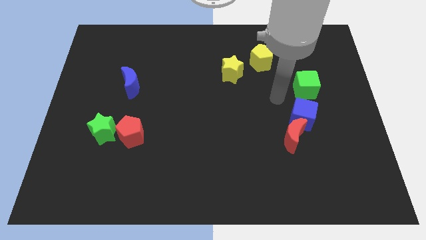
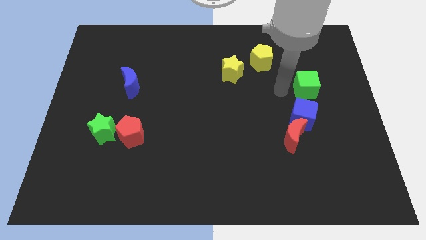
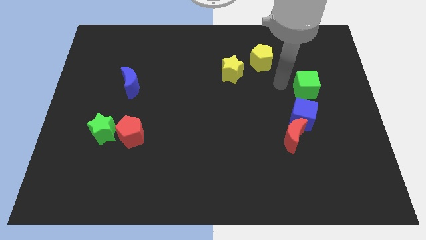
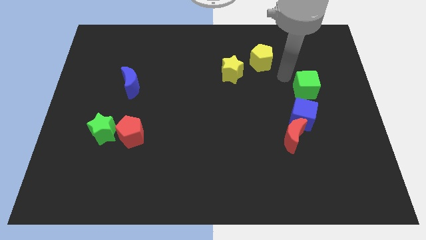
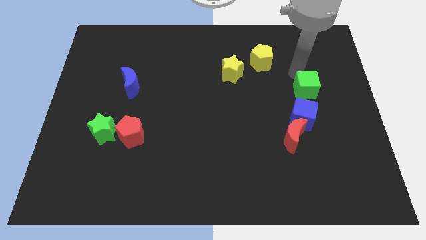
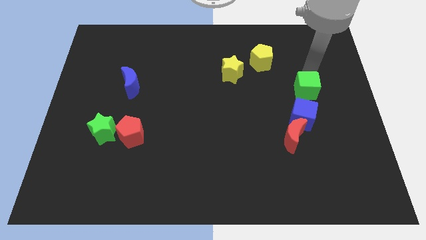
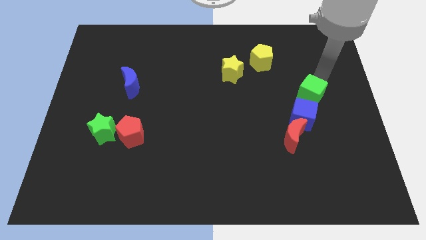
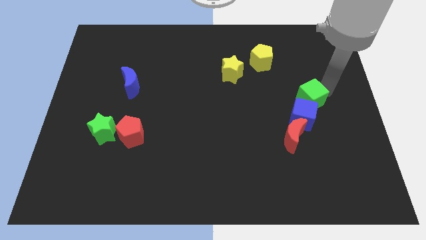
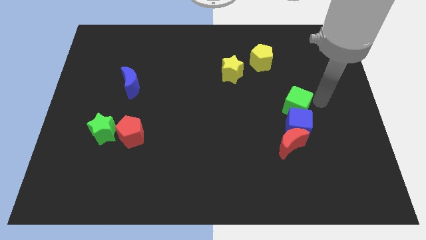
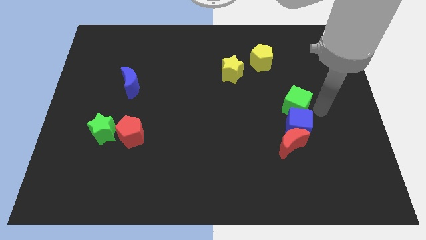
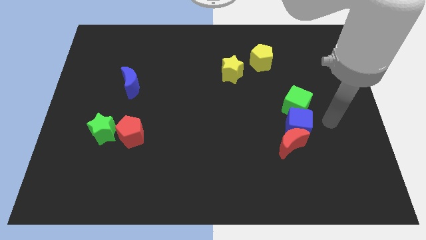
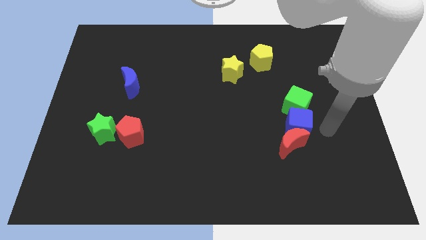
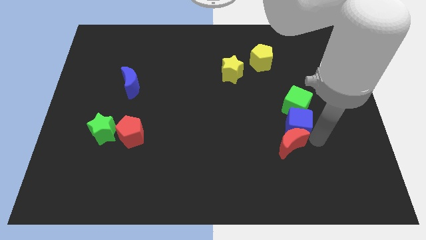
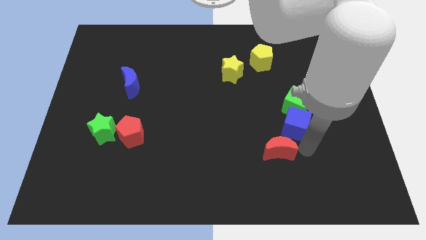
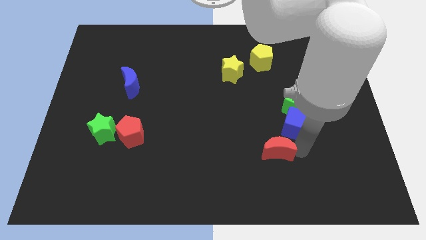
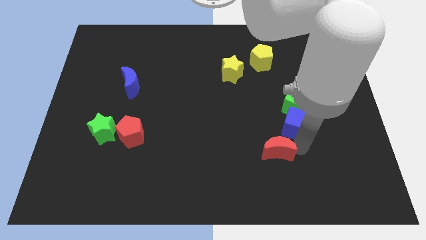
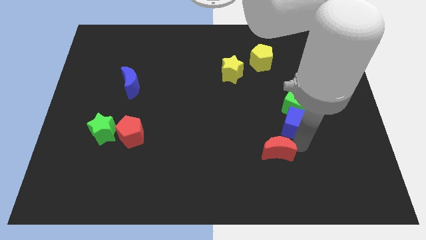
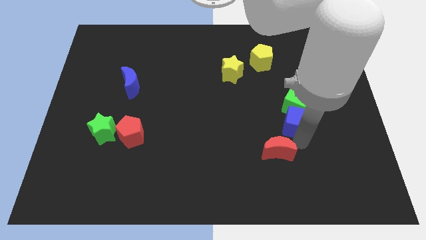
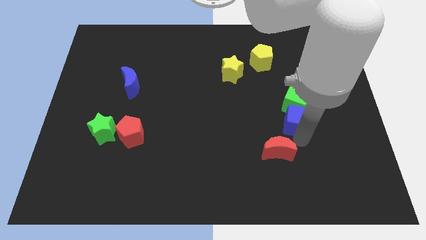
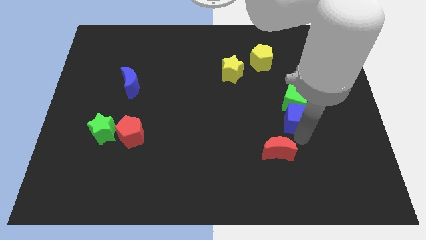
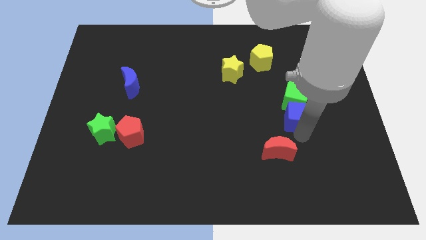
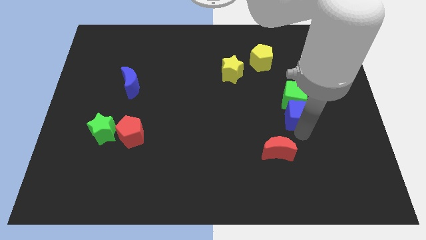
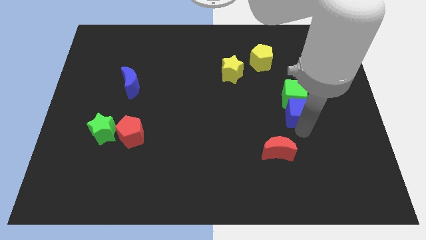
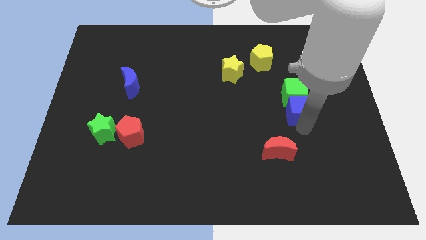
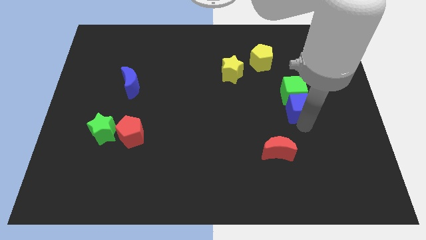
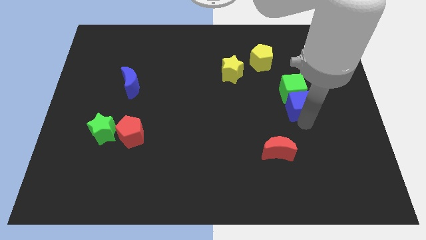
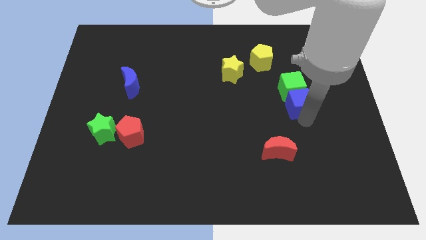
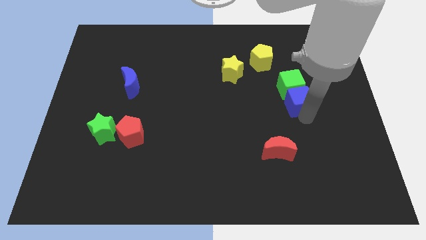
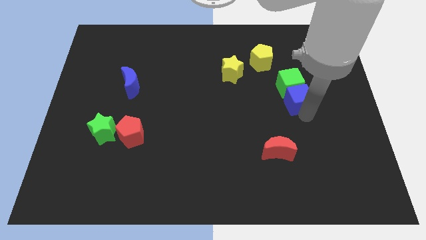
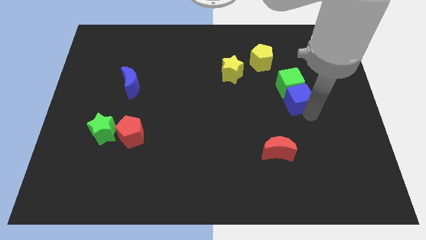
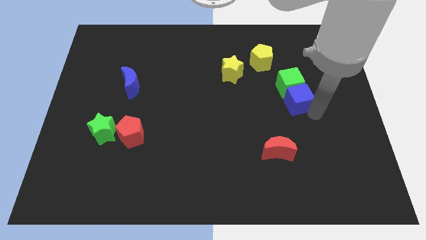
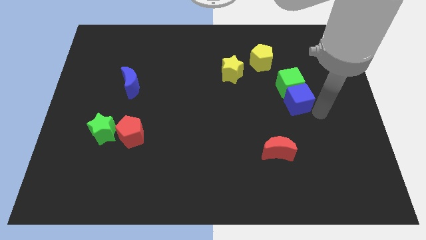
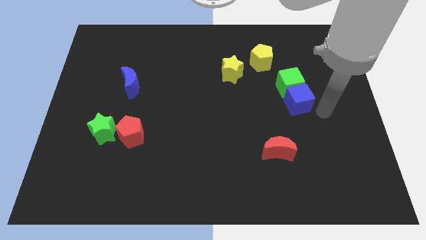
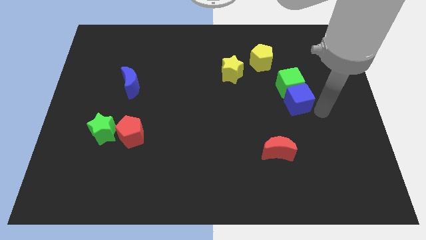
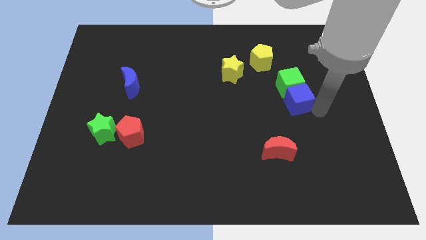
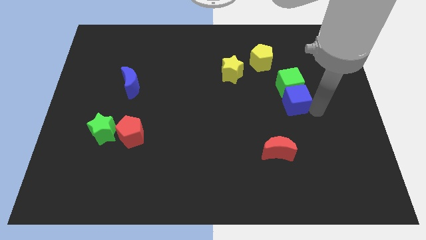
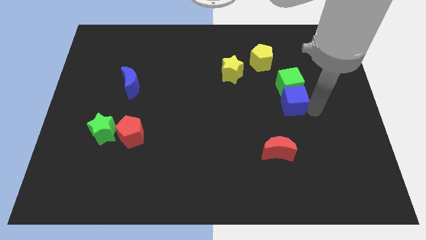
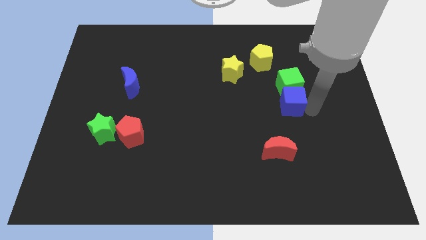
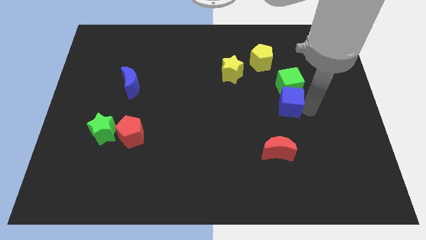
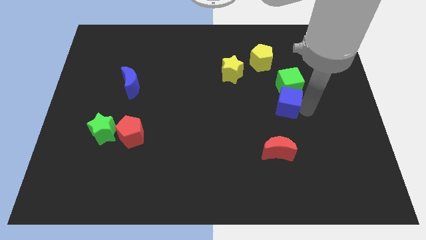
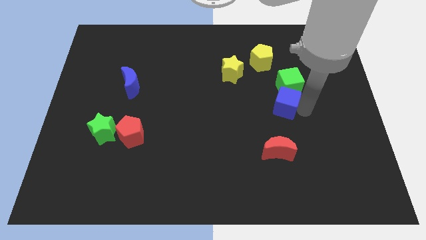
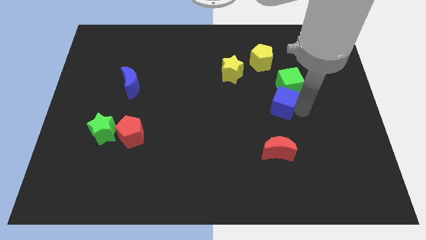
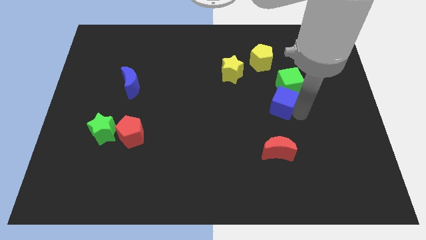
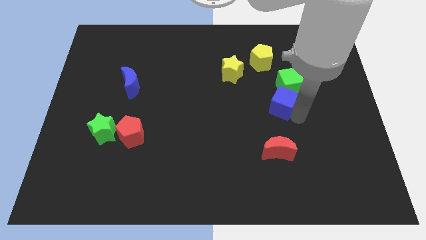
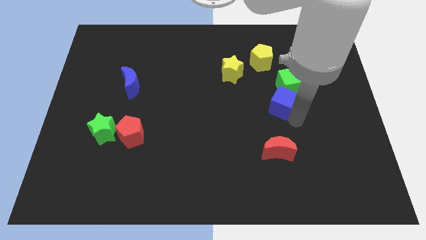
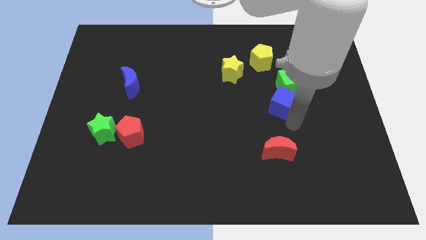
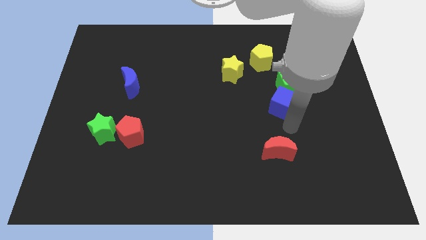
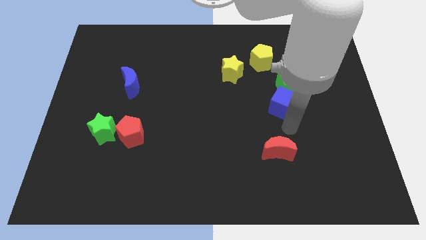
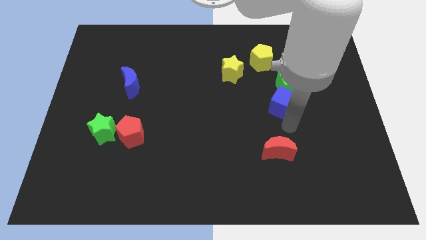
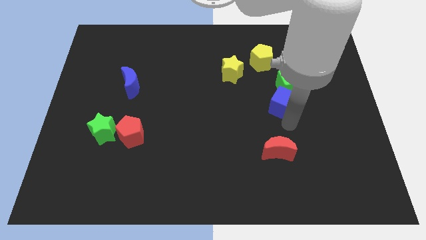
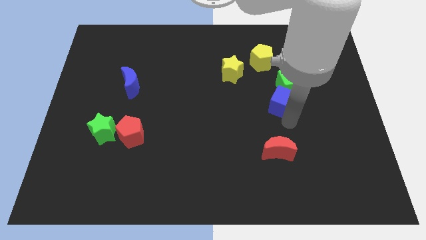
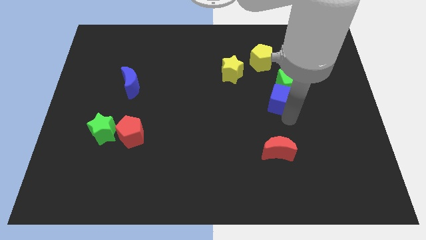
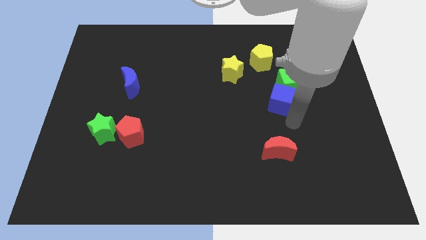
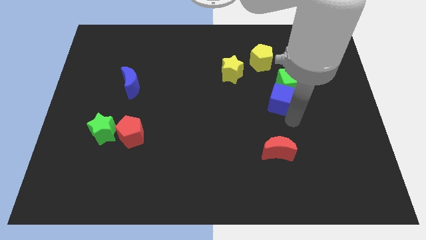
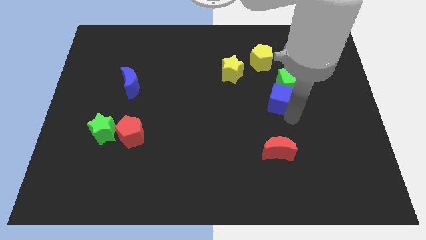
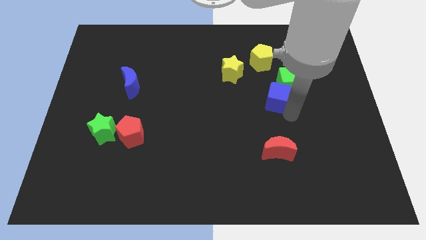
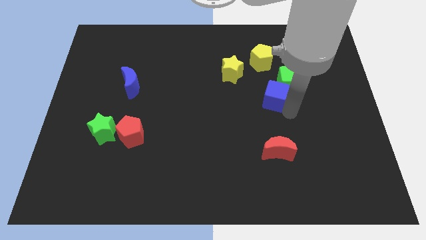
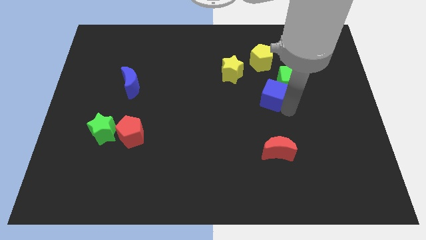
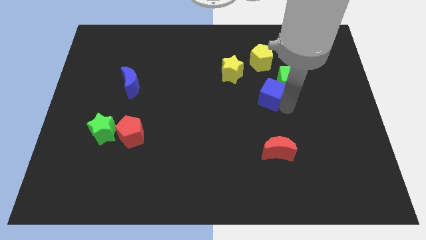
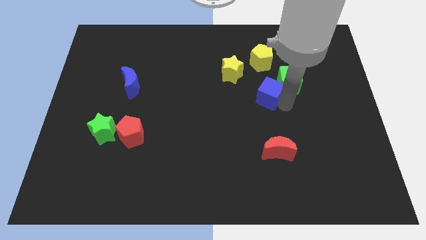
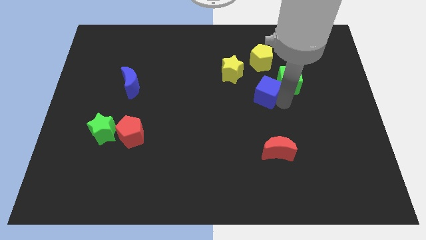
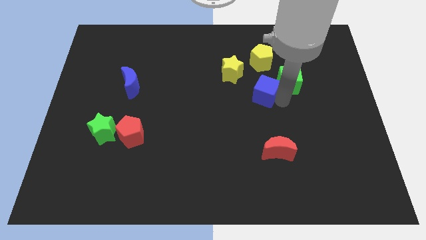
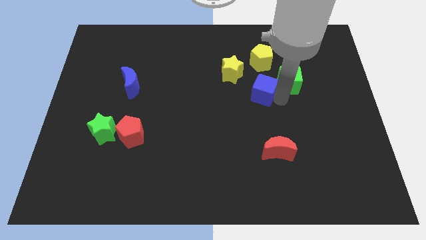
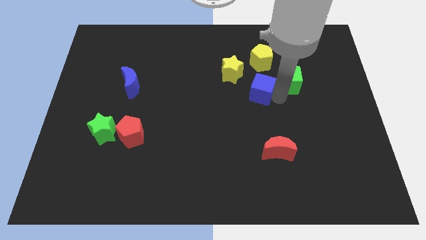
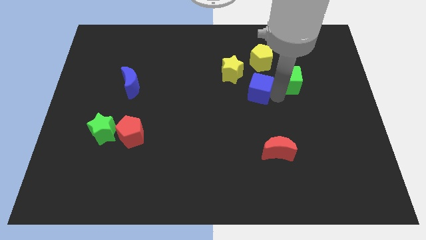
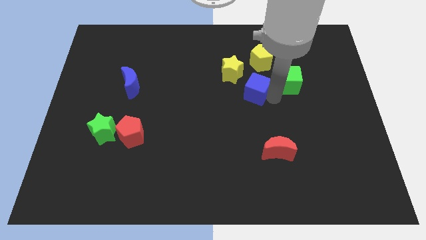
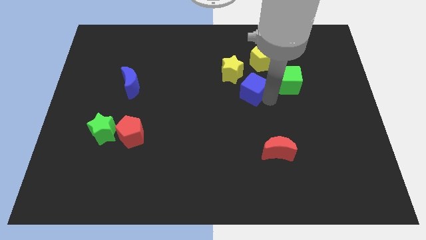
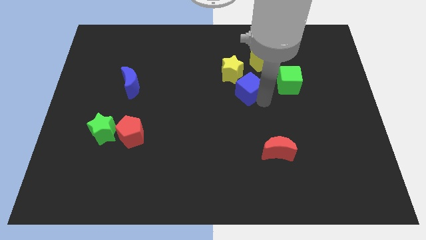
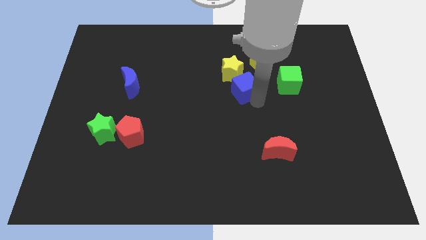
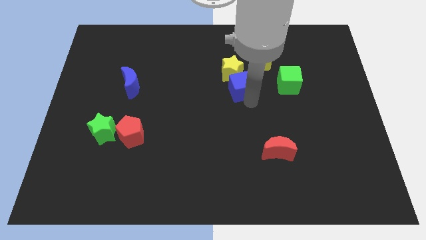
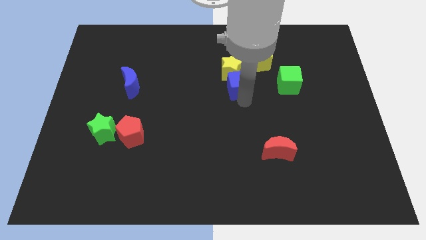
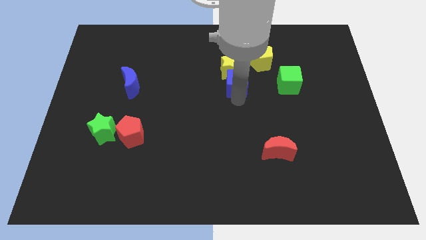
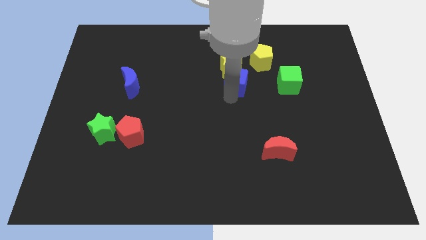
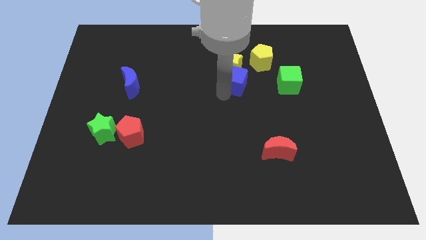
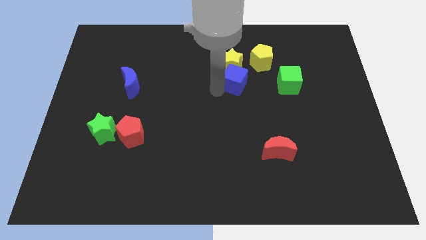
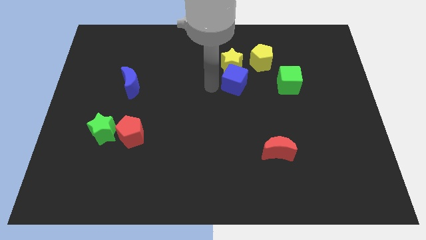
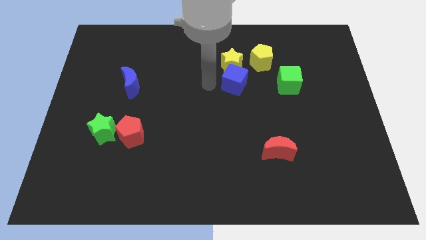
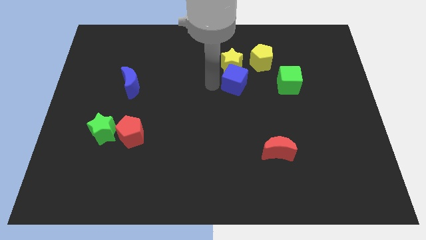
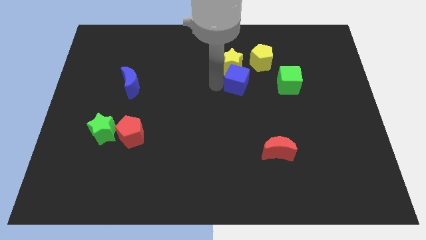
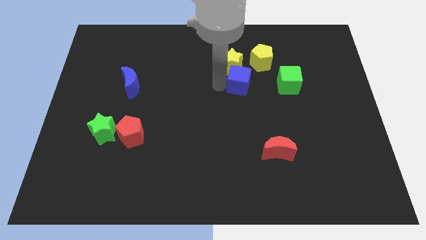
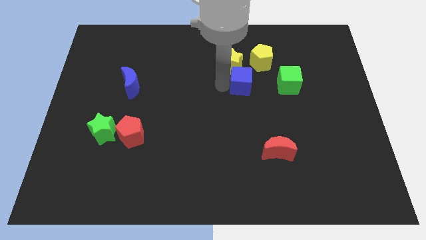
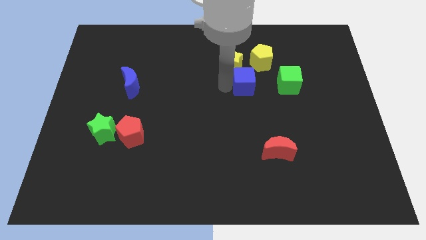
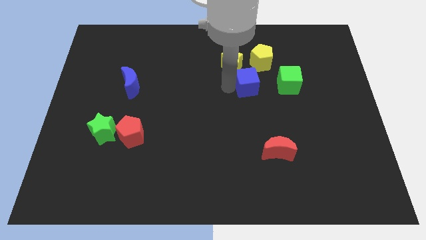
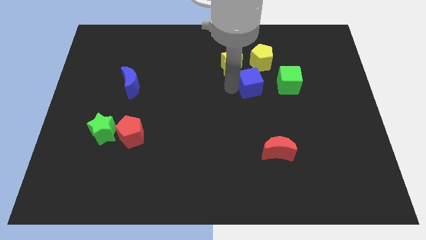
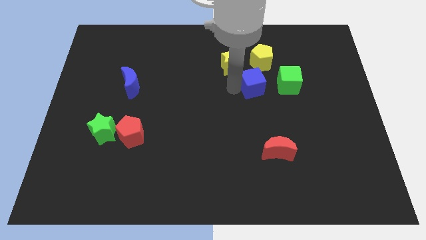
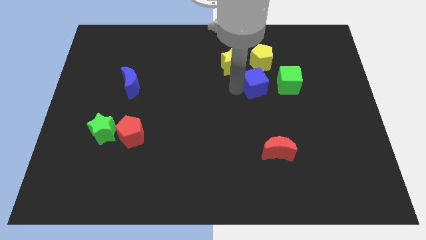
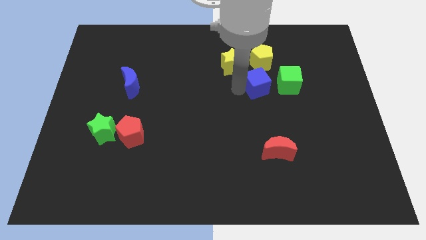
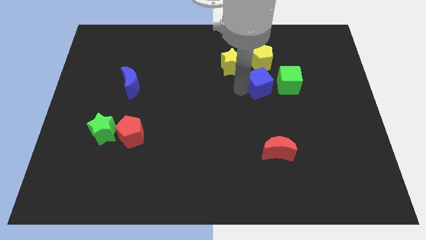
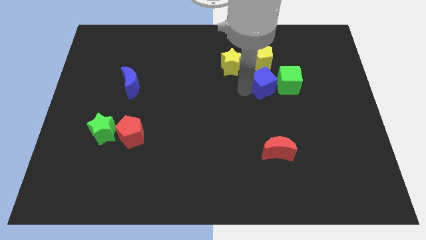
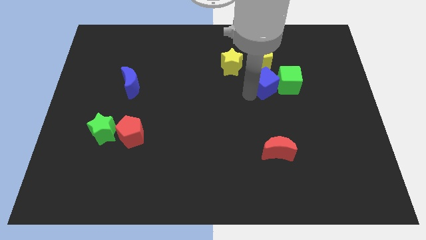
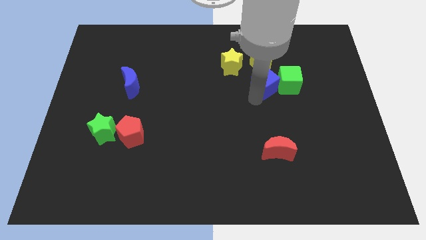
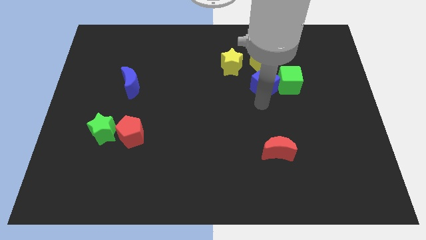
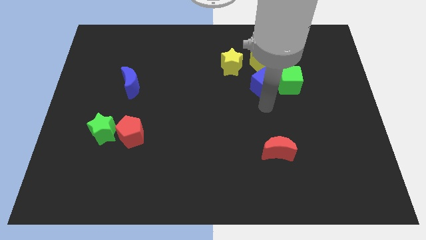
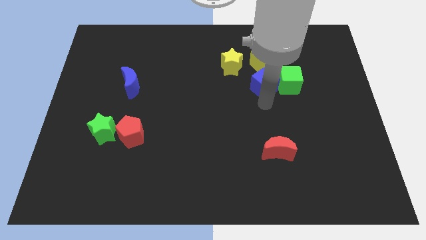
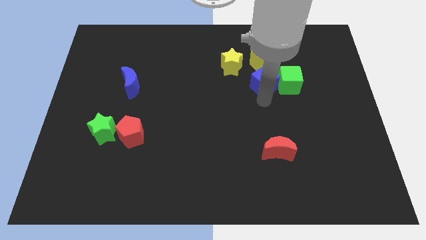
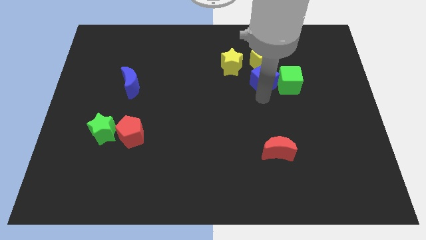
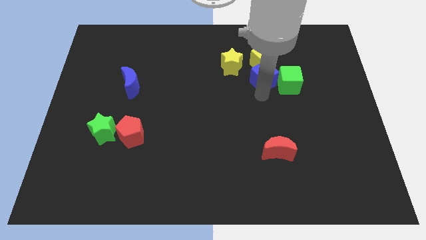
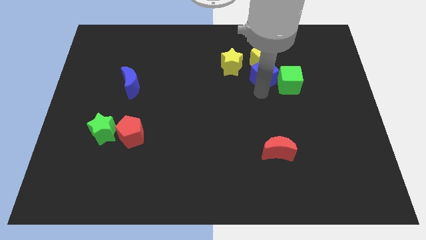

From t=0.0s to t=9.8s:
move the blue cube to the yellow pentagon
